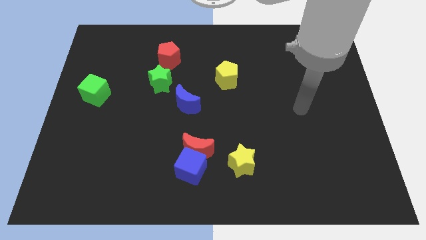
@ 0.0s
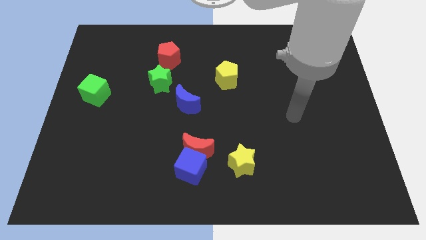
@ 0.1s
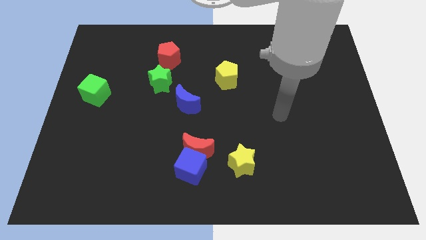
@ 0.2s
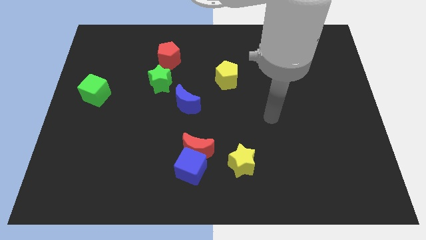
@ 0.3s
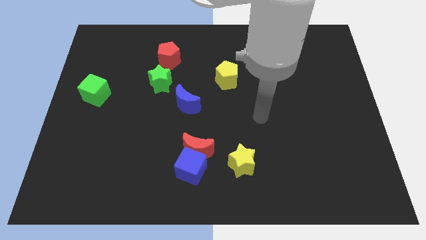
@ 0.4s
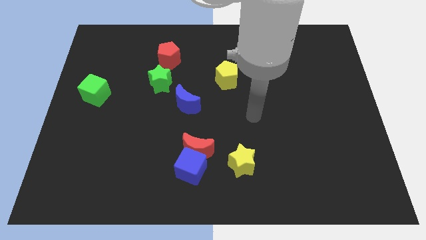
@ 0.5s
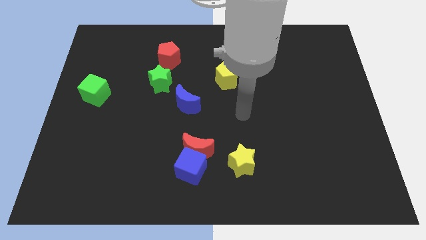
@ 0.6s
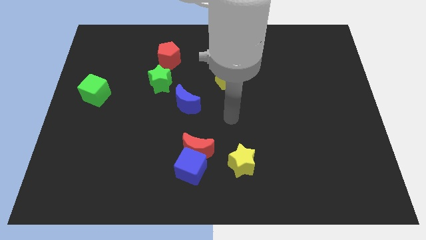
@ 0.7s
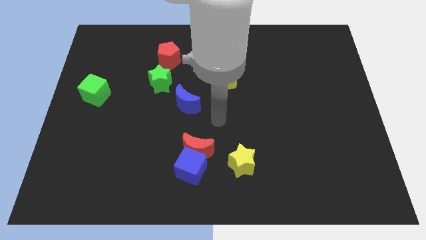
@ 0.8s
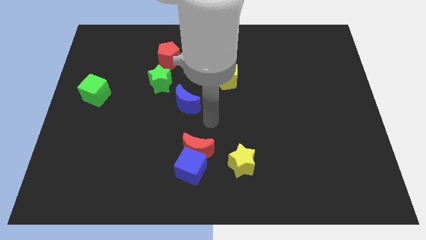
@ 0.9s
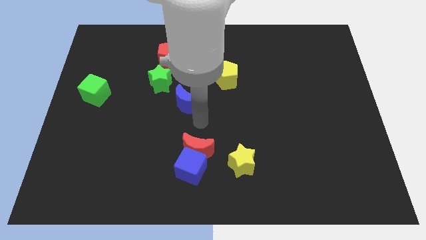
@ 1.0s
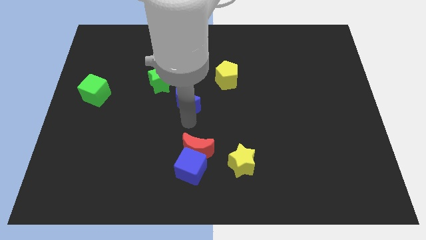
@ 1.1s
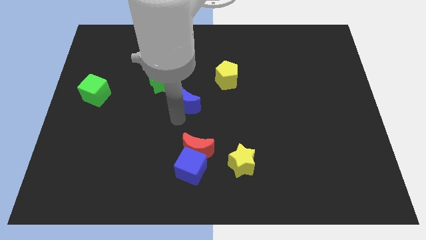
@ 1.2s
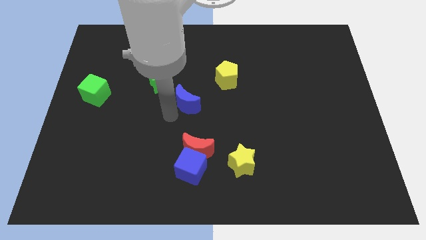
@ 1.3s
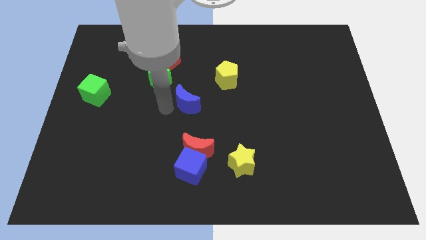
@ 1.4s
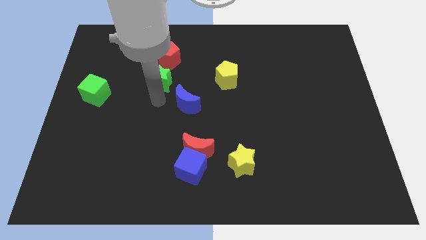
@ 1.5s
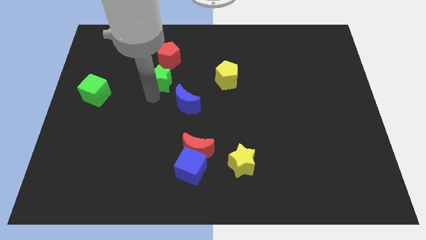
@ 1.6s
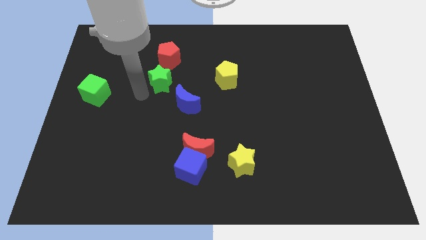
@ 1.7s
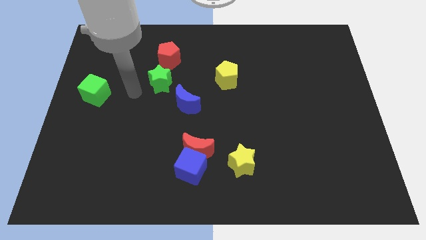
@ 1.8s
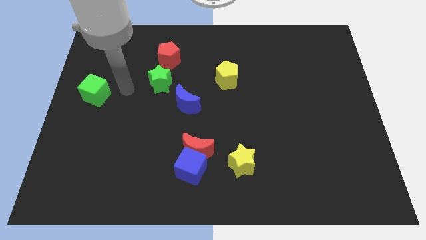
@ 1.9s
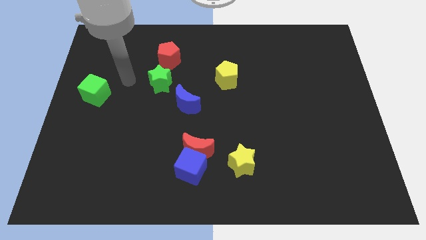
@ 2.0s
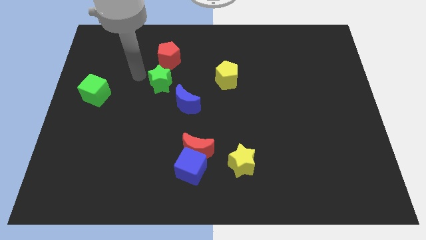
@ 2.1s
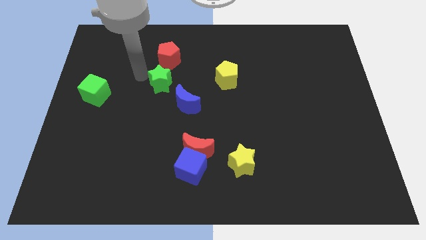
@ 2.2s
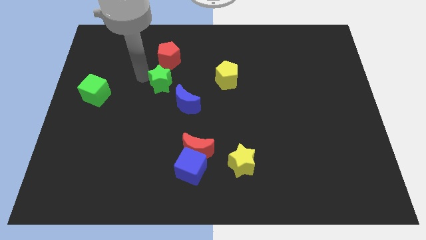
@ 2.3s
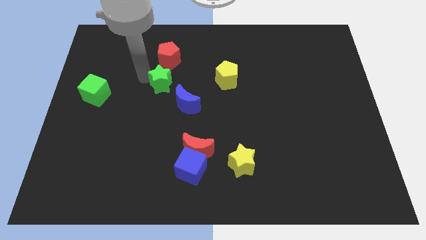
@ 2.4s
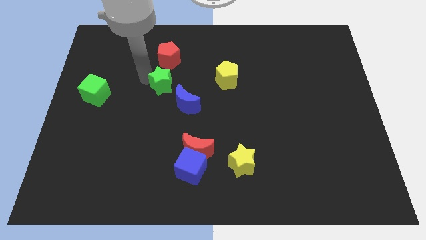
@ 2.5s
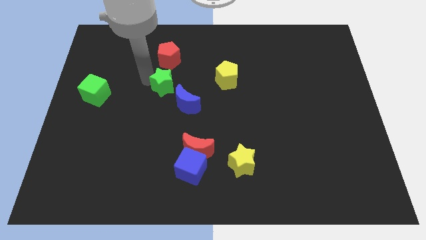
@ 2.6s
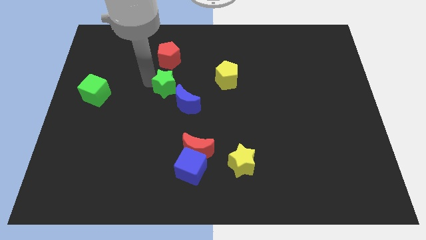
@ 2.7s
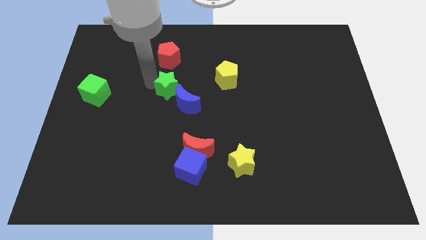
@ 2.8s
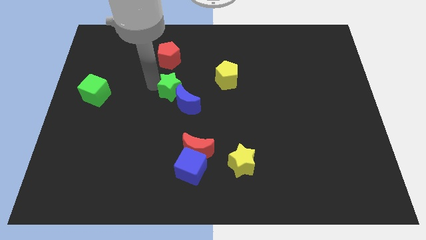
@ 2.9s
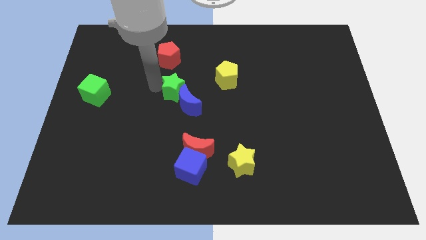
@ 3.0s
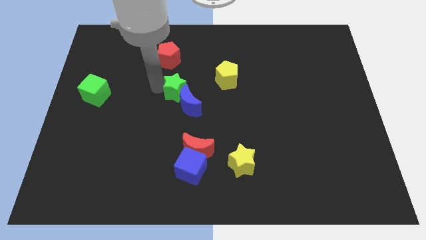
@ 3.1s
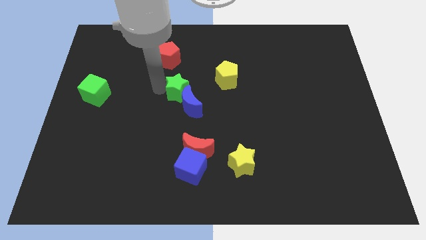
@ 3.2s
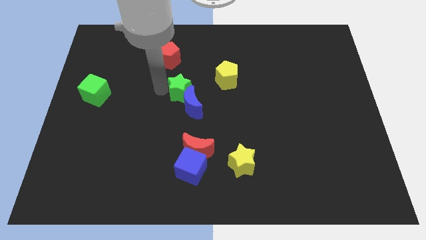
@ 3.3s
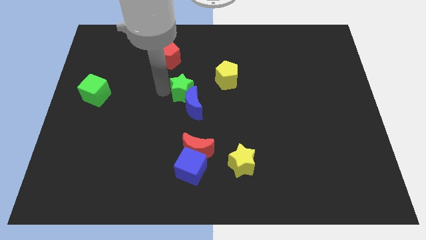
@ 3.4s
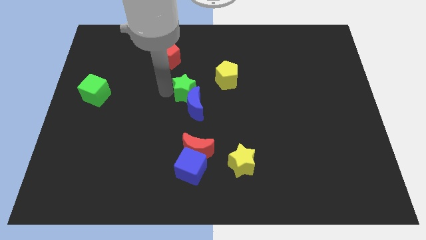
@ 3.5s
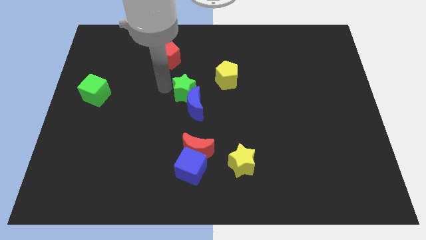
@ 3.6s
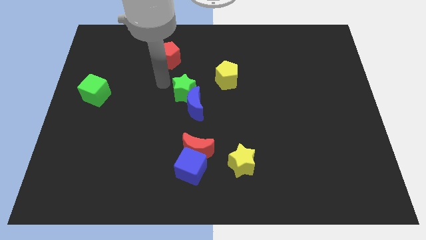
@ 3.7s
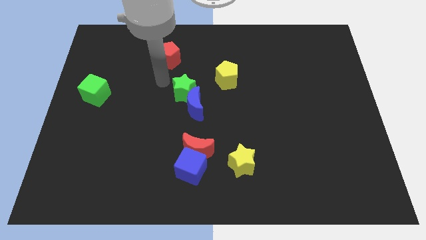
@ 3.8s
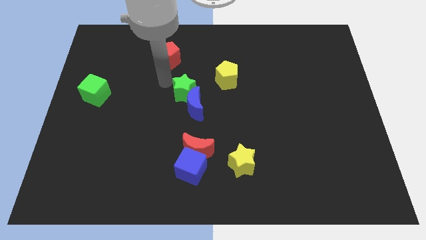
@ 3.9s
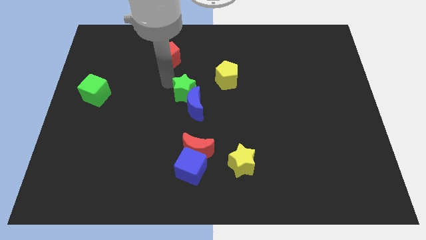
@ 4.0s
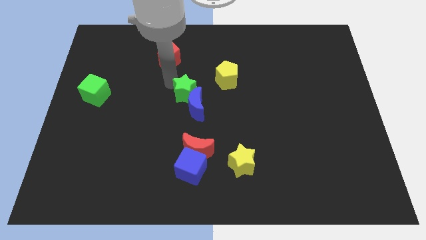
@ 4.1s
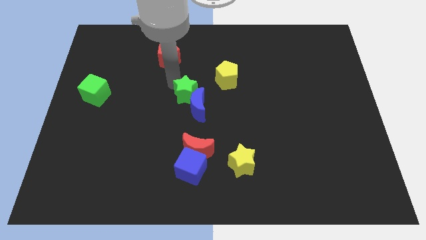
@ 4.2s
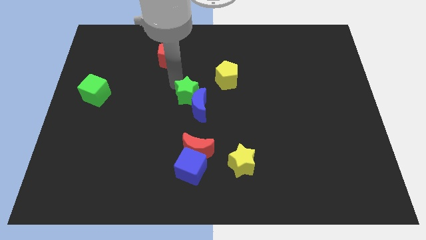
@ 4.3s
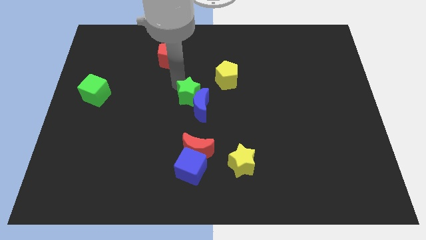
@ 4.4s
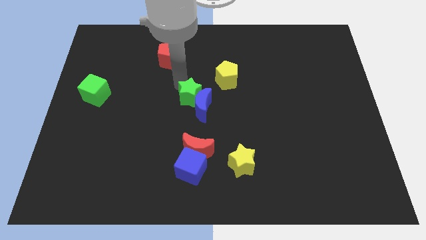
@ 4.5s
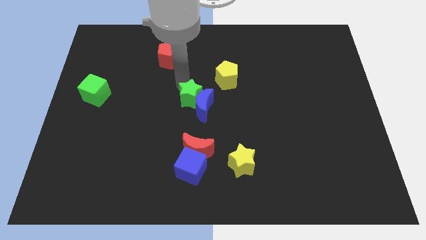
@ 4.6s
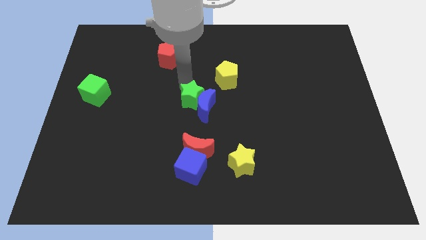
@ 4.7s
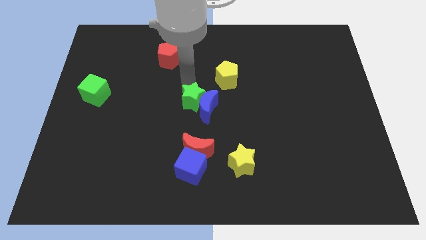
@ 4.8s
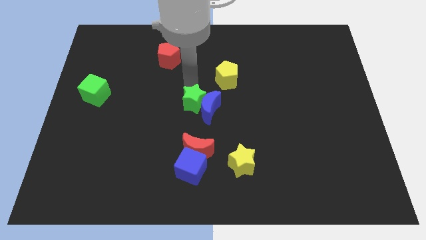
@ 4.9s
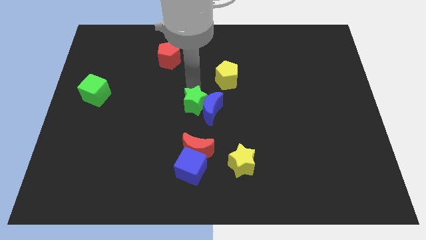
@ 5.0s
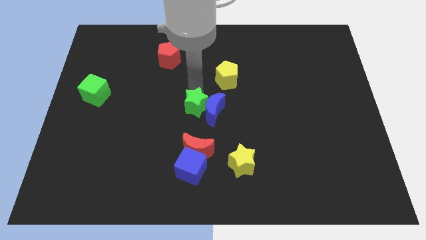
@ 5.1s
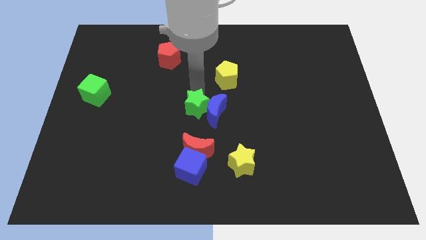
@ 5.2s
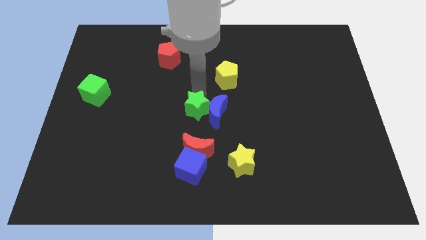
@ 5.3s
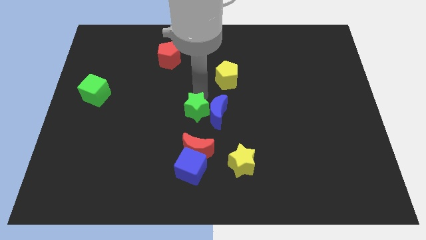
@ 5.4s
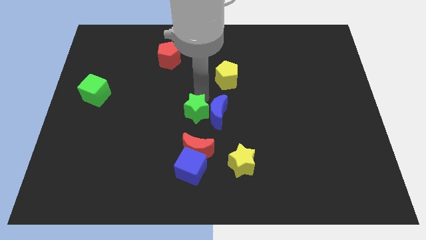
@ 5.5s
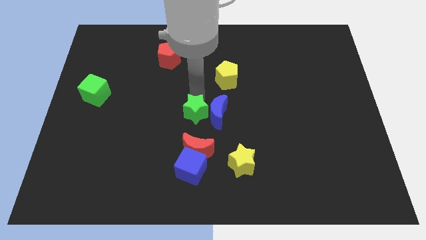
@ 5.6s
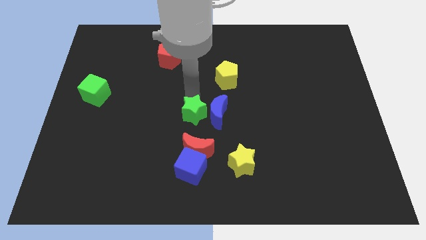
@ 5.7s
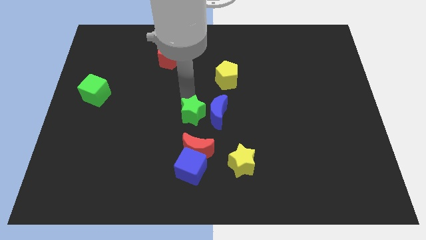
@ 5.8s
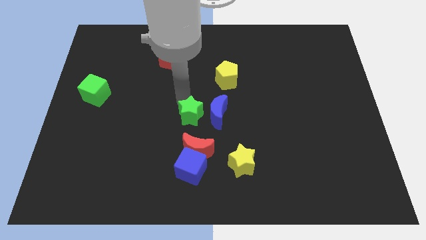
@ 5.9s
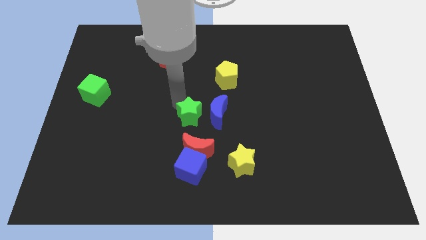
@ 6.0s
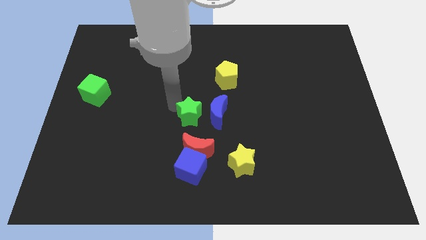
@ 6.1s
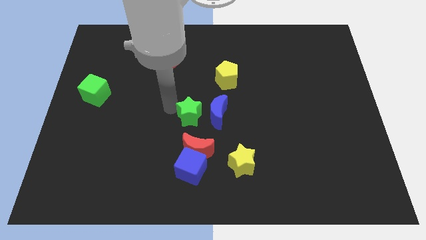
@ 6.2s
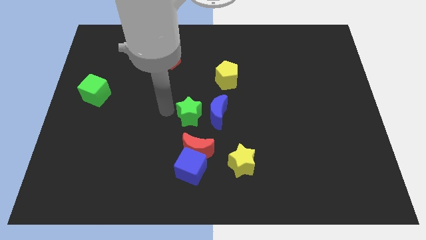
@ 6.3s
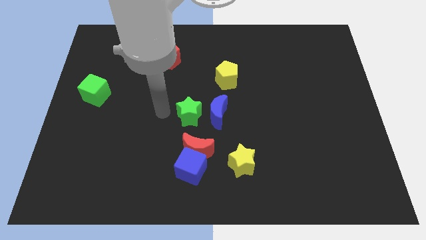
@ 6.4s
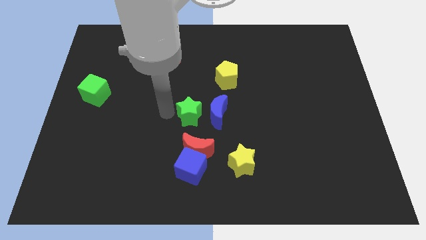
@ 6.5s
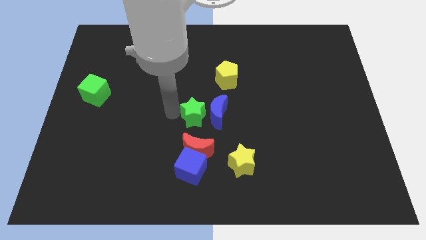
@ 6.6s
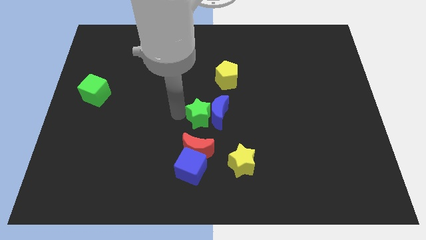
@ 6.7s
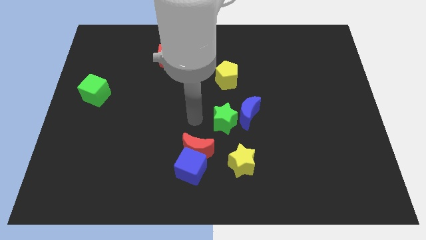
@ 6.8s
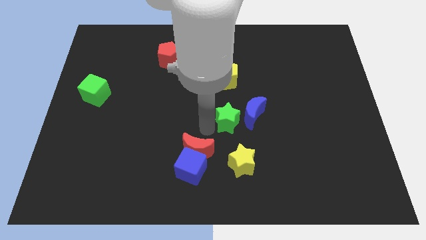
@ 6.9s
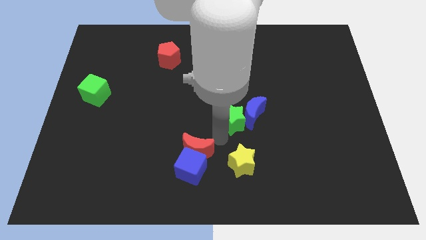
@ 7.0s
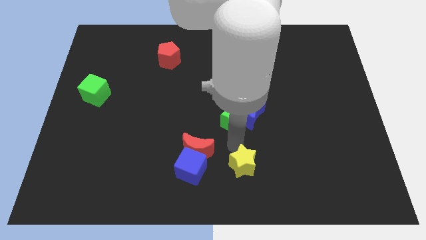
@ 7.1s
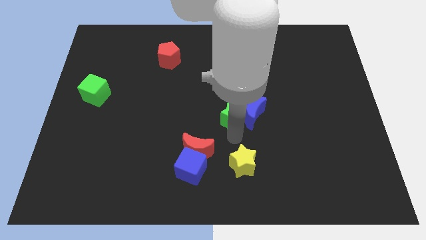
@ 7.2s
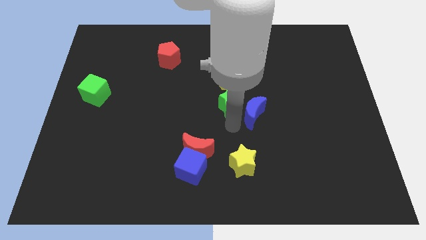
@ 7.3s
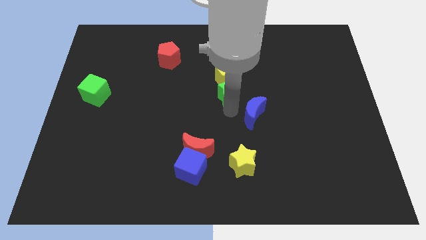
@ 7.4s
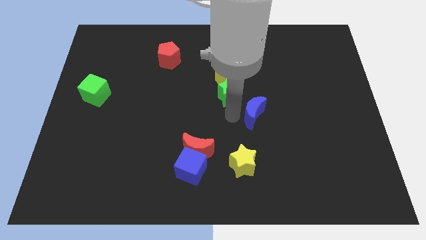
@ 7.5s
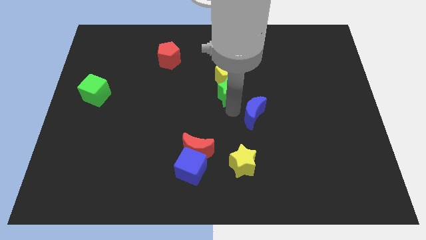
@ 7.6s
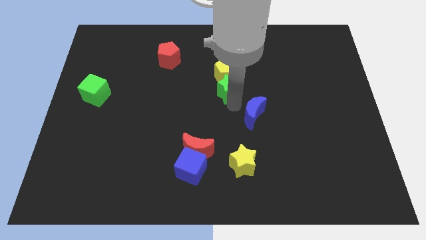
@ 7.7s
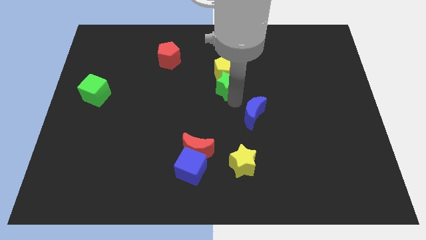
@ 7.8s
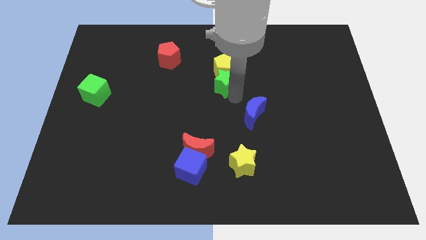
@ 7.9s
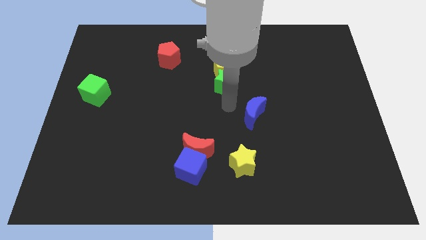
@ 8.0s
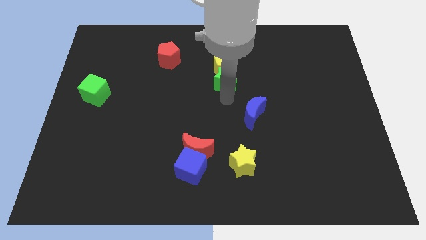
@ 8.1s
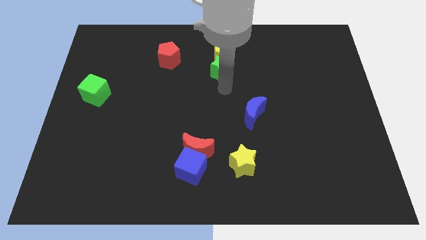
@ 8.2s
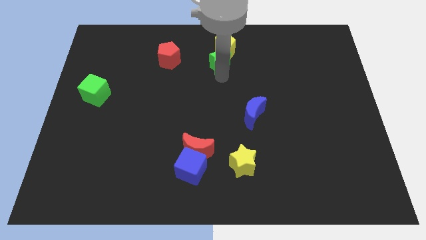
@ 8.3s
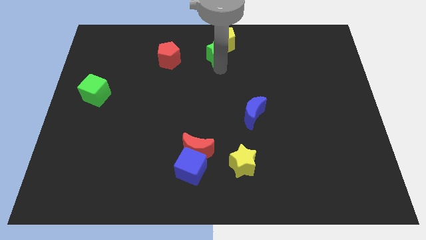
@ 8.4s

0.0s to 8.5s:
move the green star to the towards your base
